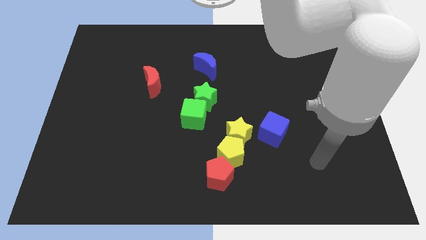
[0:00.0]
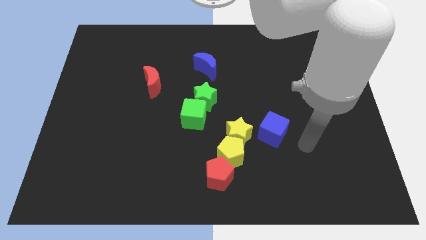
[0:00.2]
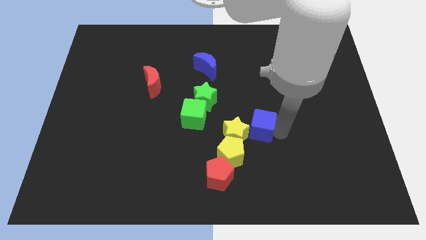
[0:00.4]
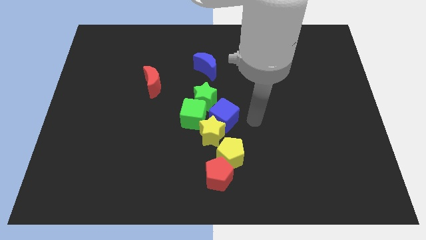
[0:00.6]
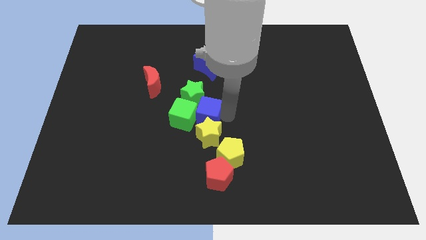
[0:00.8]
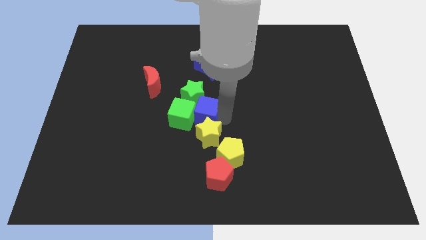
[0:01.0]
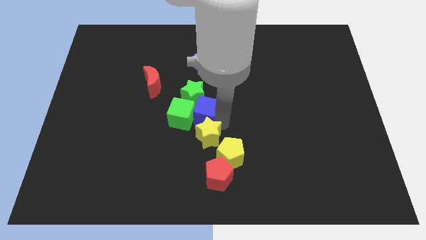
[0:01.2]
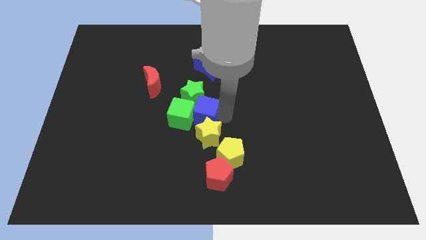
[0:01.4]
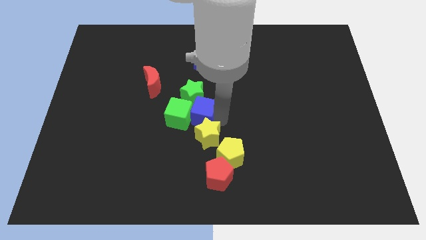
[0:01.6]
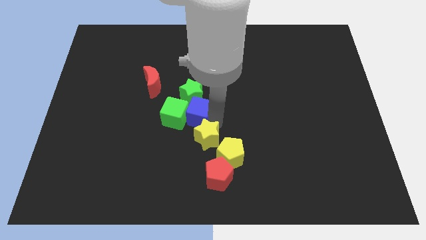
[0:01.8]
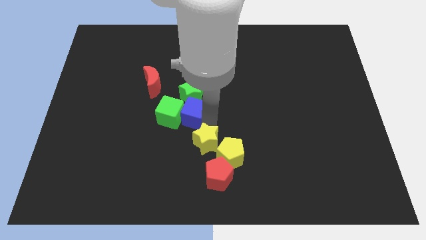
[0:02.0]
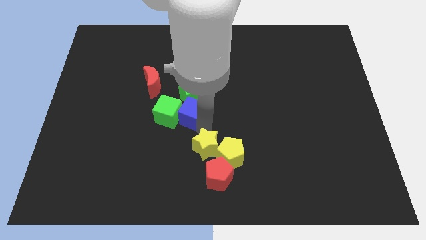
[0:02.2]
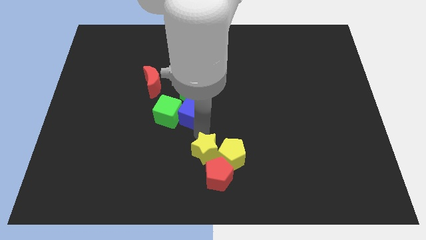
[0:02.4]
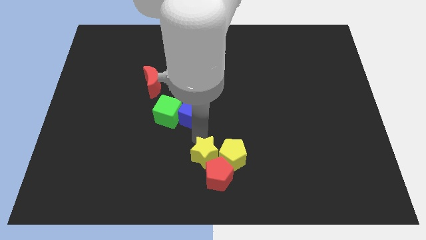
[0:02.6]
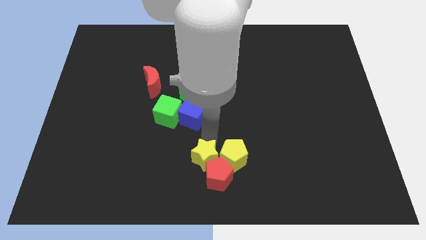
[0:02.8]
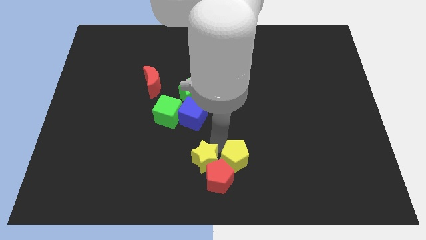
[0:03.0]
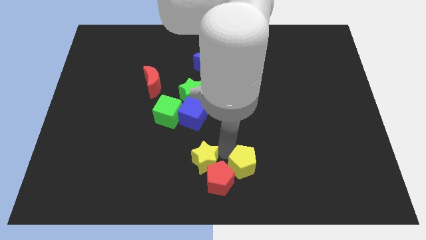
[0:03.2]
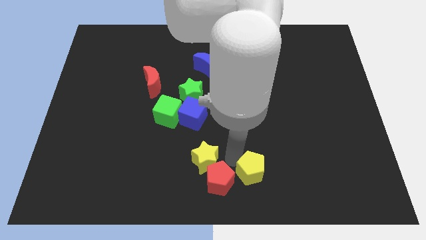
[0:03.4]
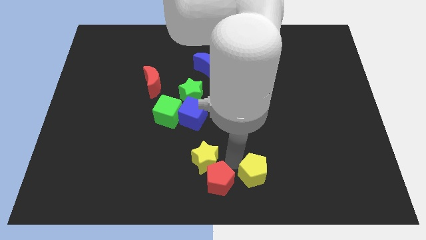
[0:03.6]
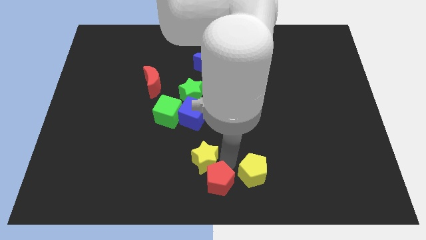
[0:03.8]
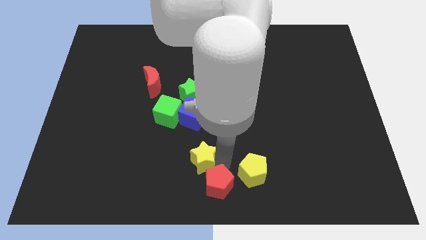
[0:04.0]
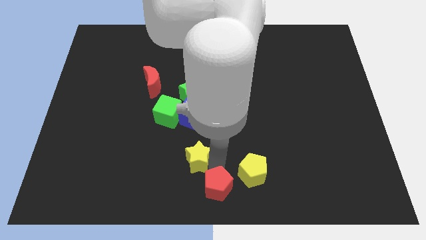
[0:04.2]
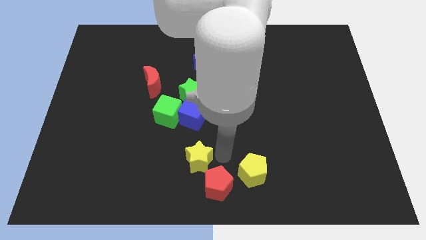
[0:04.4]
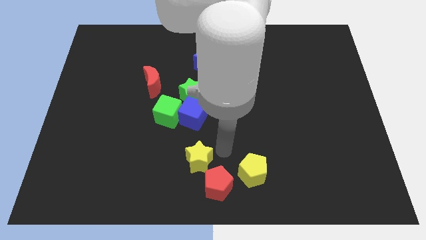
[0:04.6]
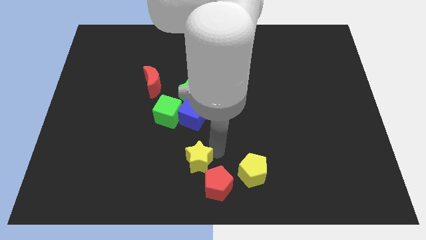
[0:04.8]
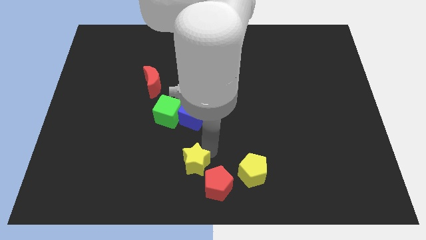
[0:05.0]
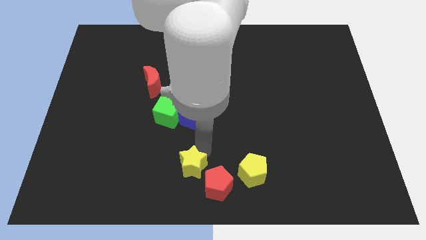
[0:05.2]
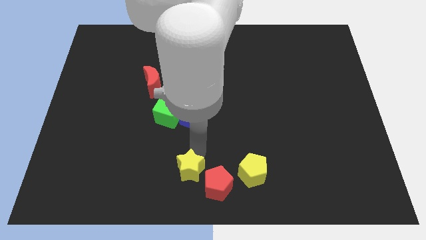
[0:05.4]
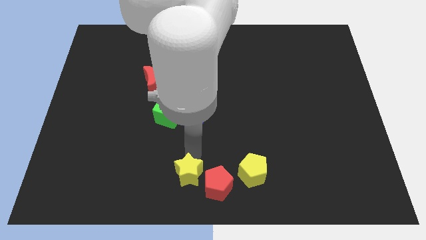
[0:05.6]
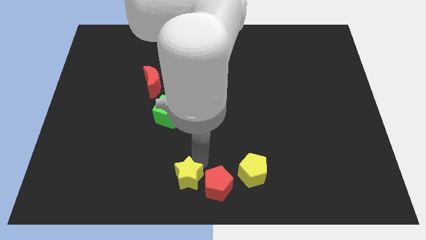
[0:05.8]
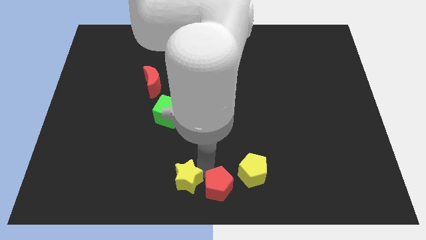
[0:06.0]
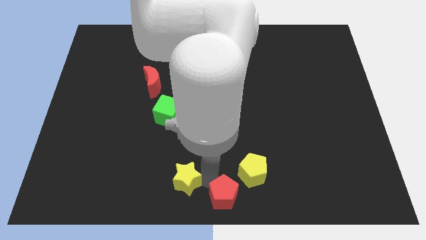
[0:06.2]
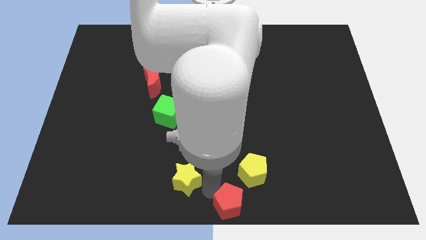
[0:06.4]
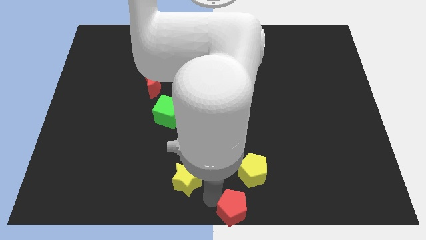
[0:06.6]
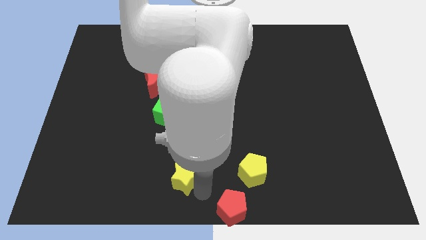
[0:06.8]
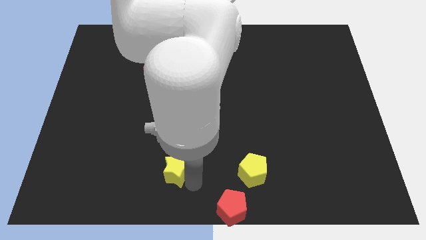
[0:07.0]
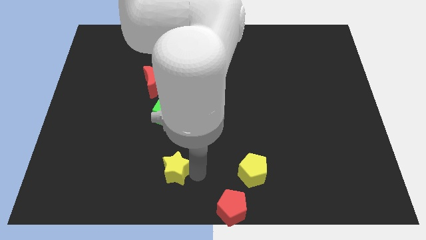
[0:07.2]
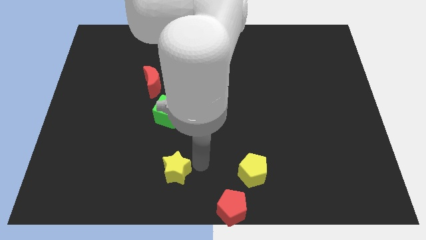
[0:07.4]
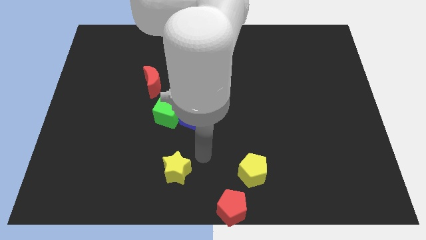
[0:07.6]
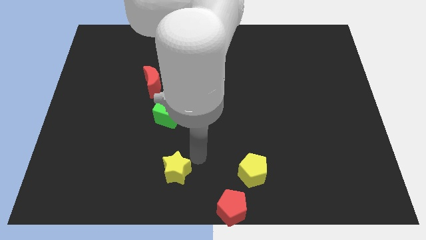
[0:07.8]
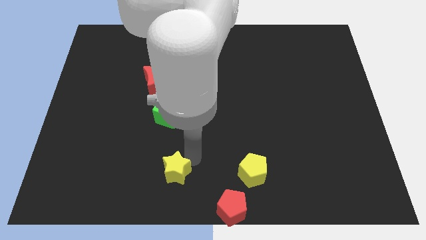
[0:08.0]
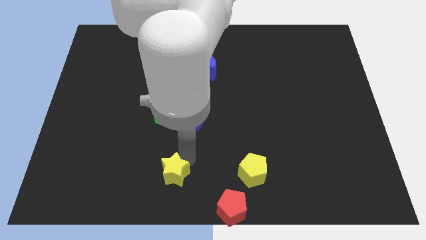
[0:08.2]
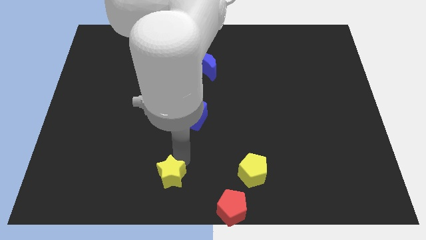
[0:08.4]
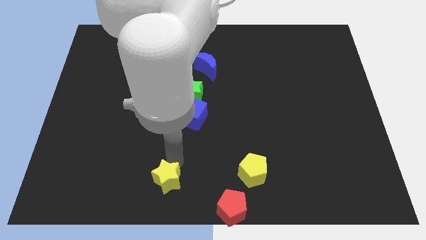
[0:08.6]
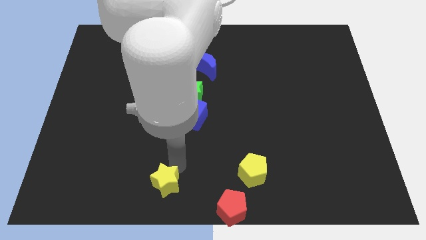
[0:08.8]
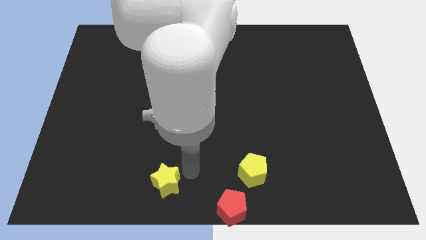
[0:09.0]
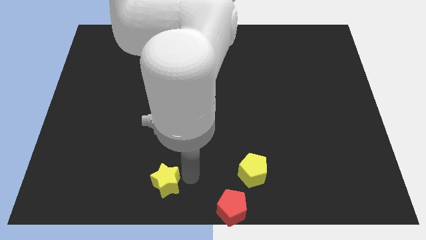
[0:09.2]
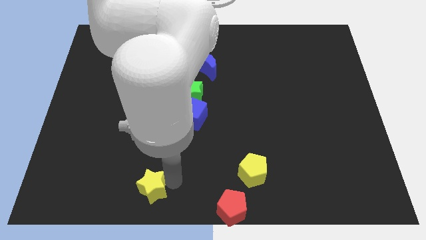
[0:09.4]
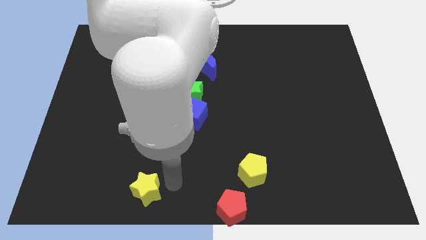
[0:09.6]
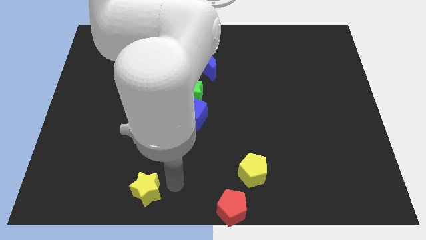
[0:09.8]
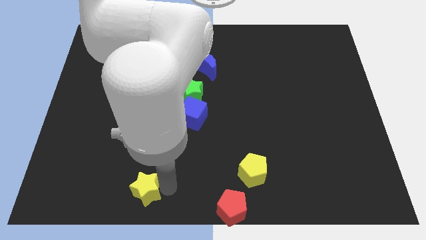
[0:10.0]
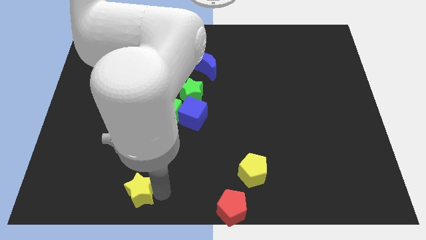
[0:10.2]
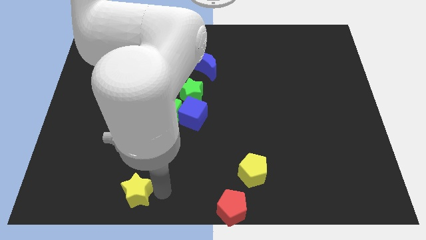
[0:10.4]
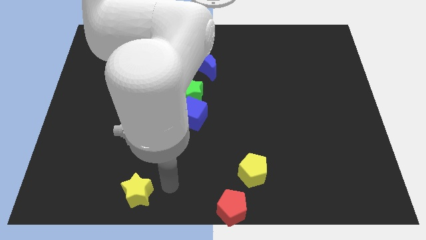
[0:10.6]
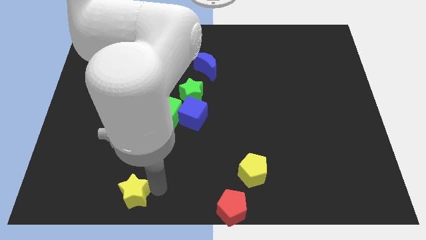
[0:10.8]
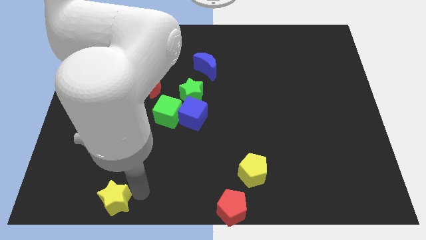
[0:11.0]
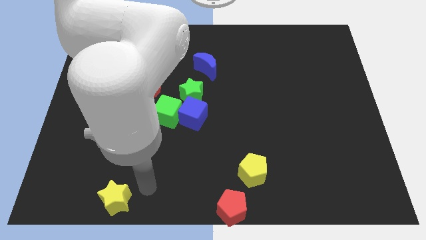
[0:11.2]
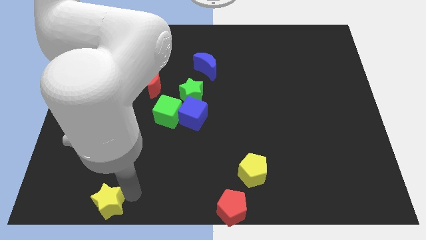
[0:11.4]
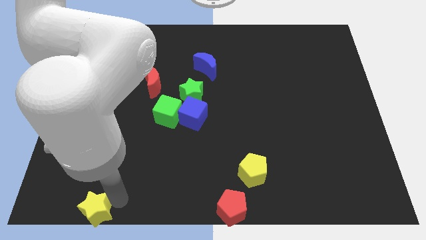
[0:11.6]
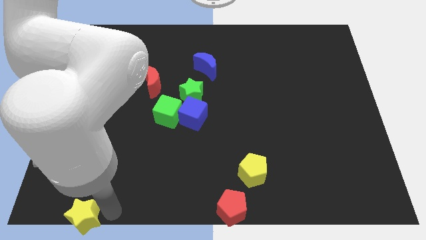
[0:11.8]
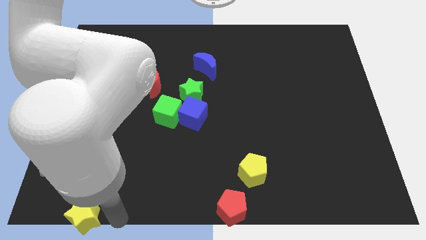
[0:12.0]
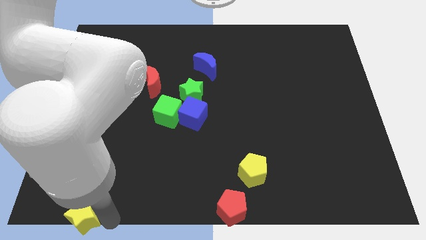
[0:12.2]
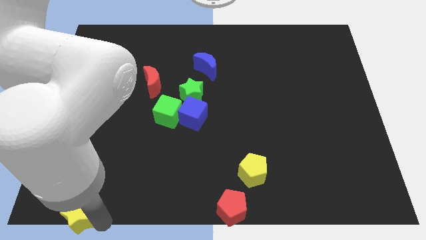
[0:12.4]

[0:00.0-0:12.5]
put the yellow star to the bottom left
